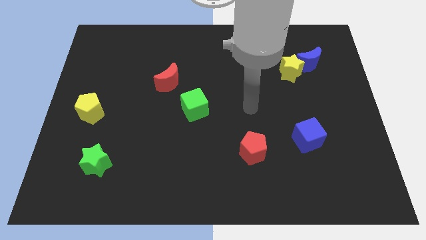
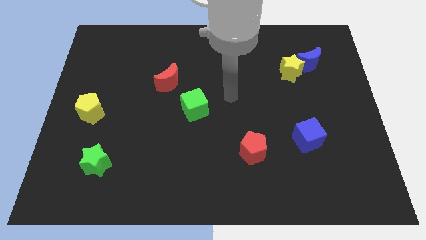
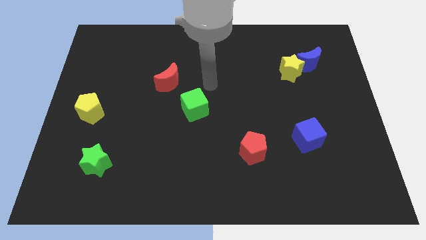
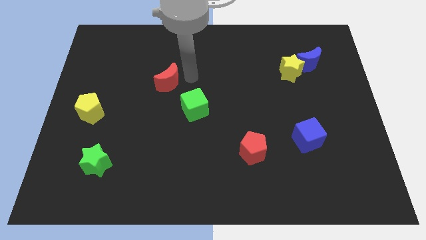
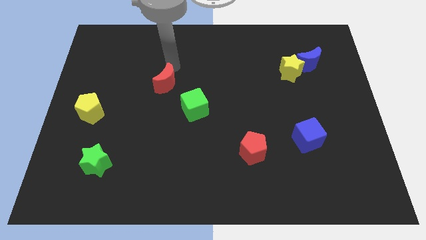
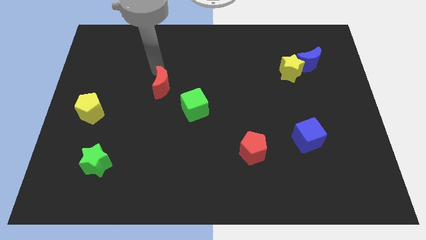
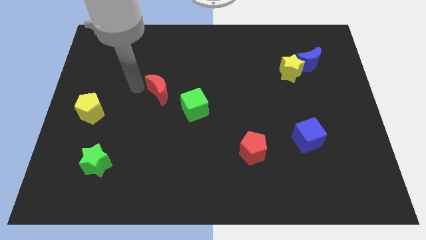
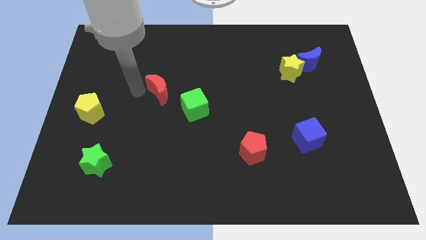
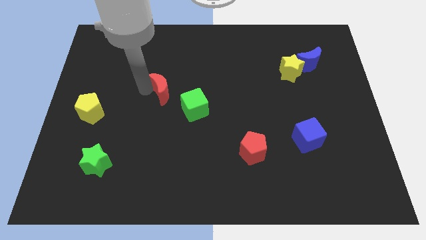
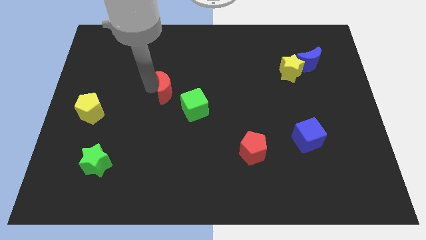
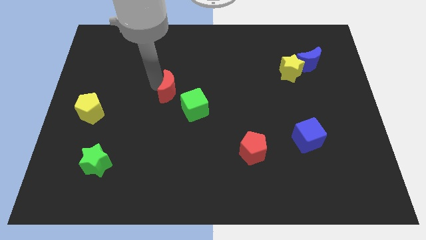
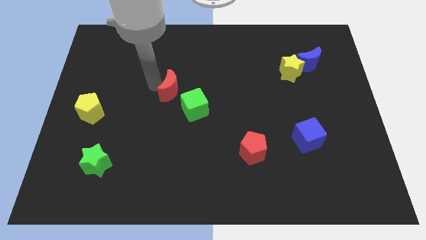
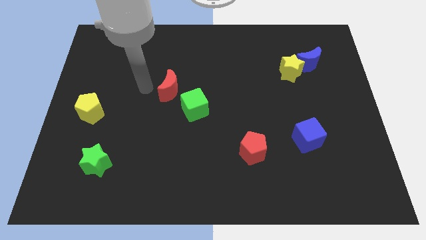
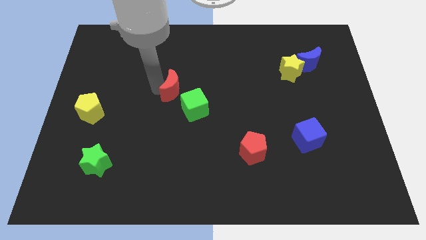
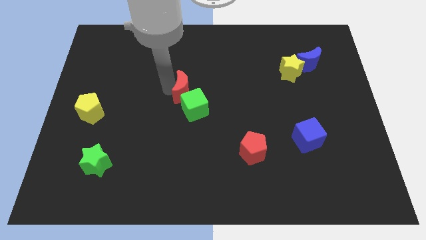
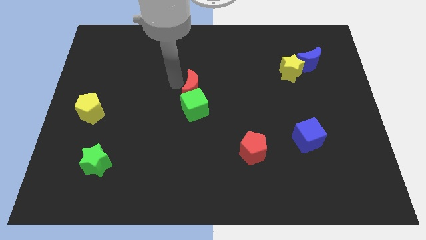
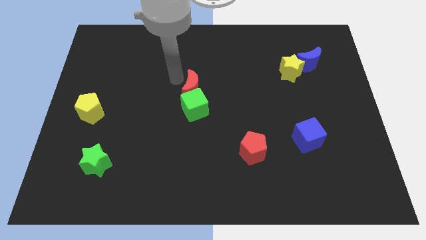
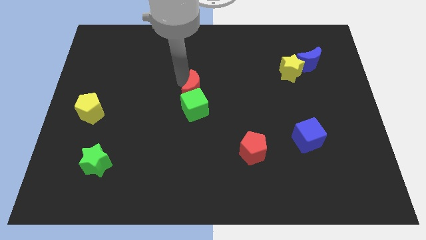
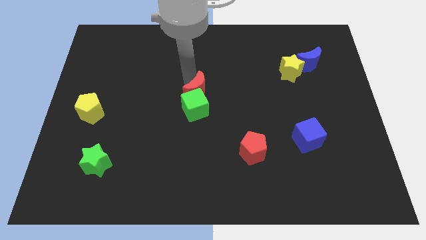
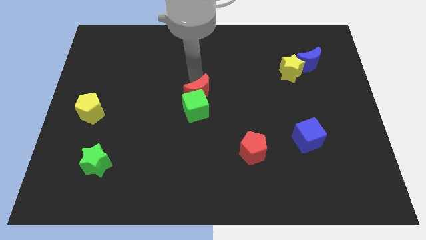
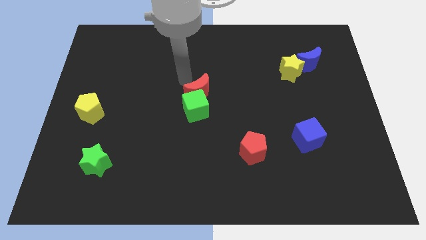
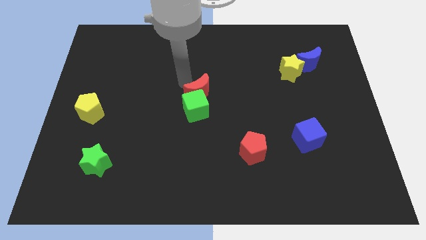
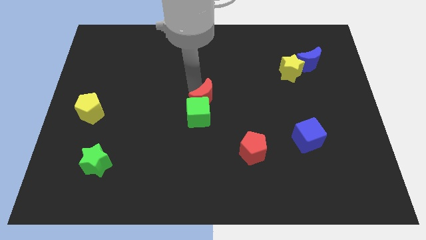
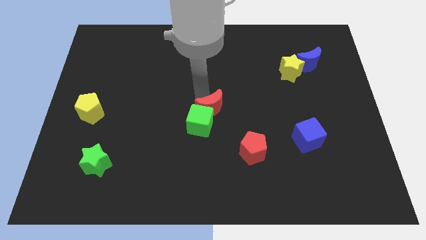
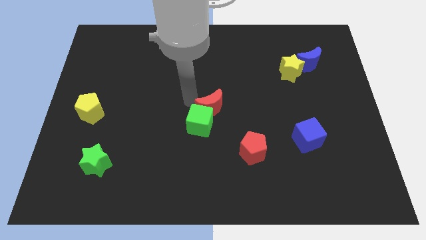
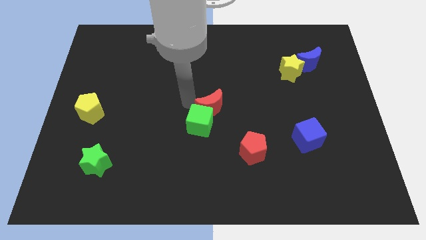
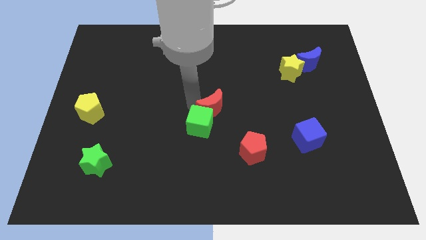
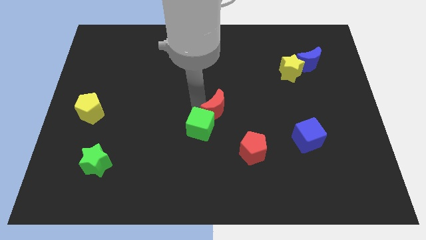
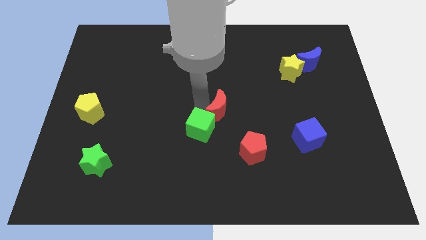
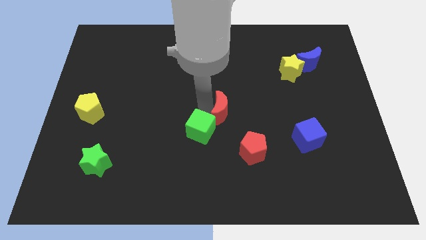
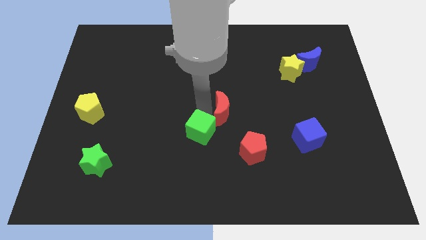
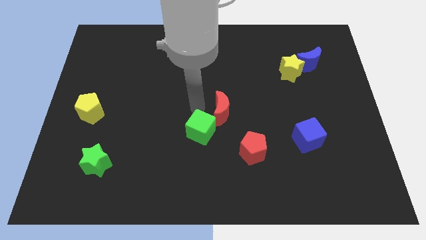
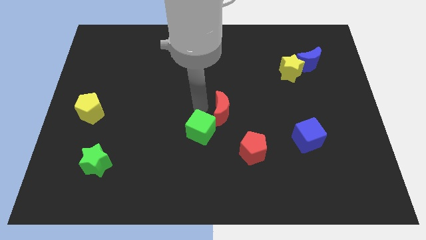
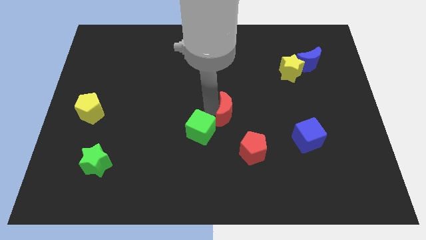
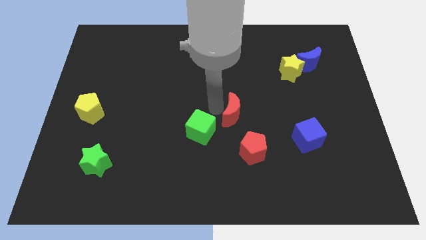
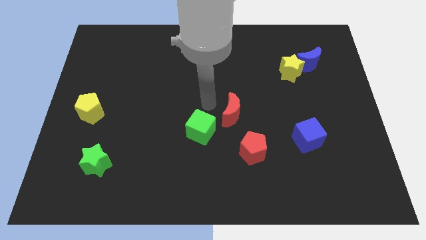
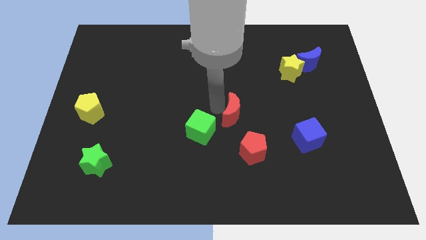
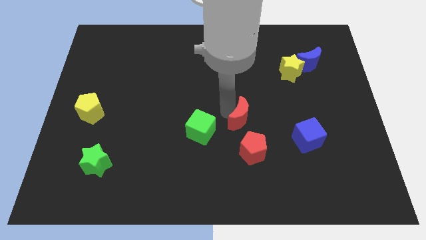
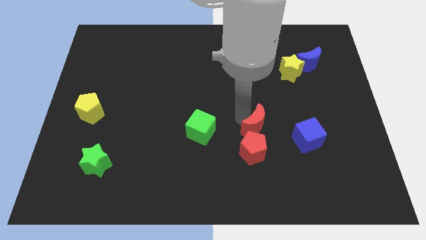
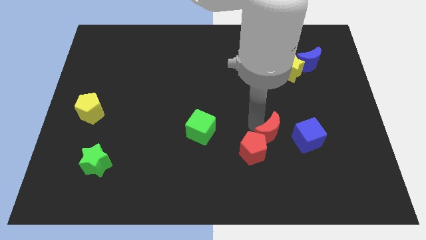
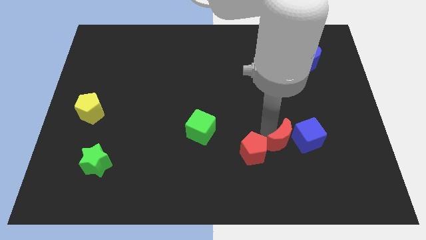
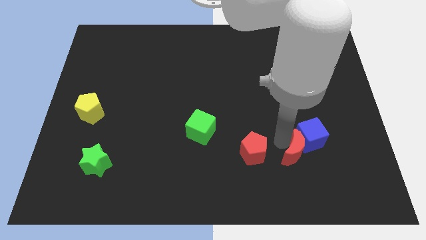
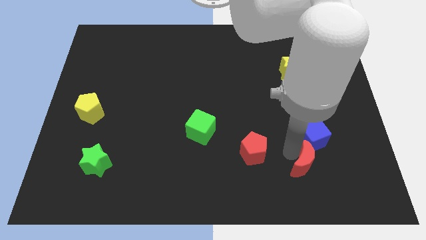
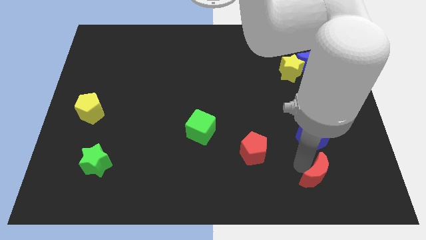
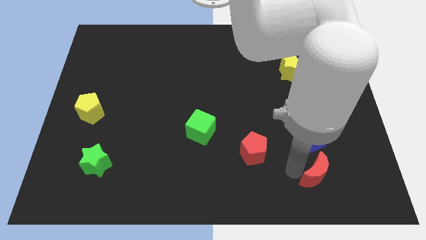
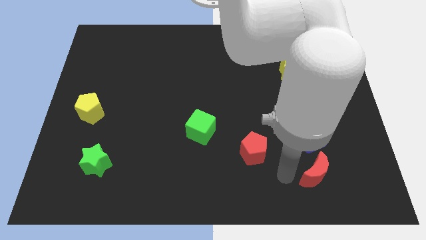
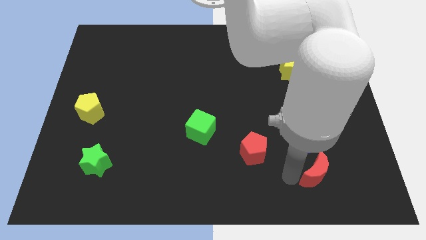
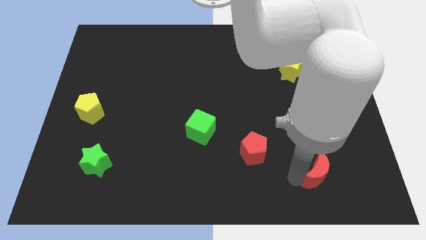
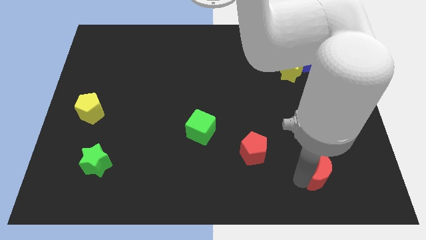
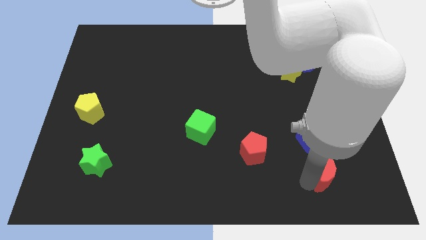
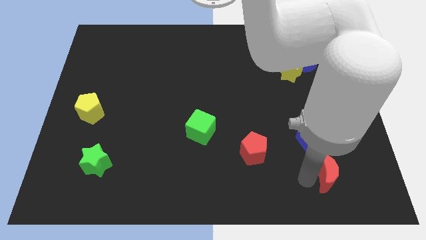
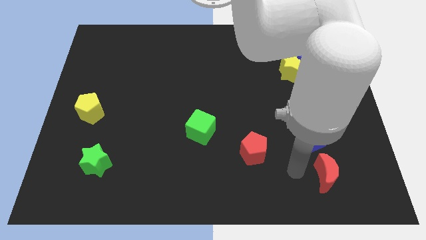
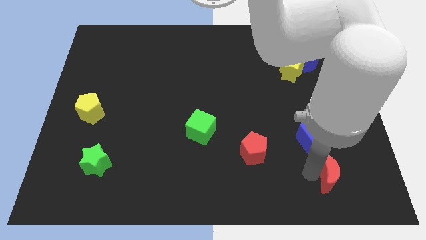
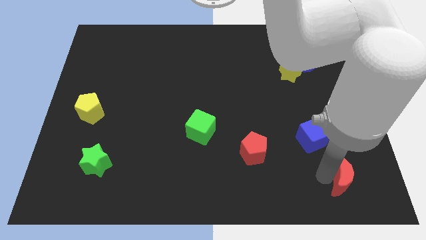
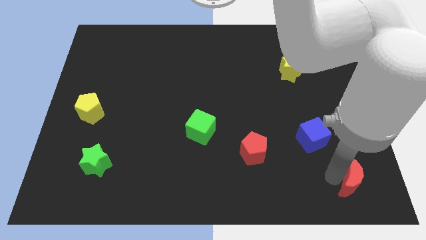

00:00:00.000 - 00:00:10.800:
slide the red moon to the lower right corner

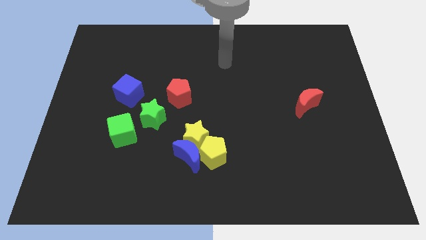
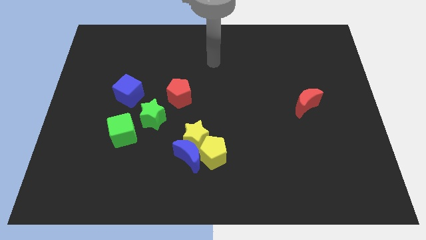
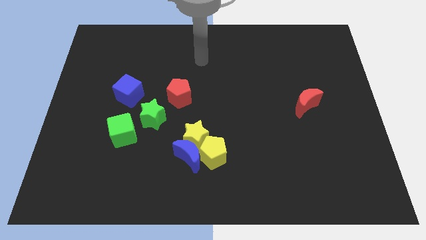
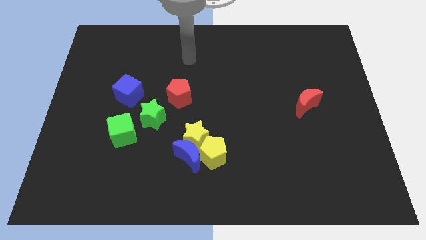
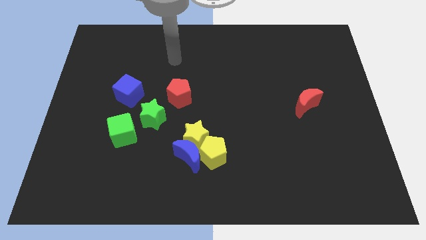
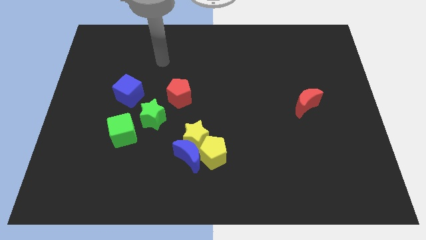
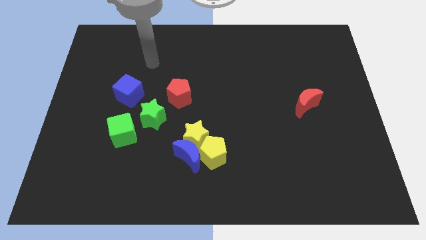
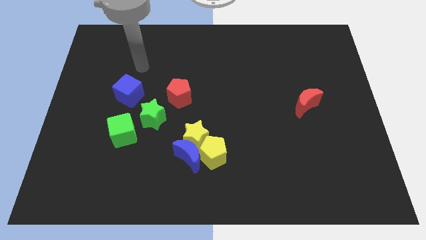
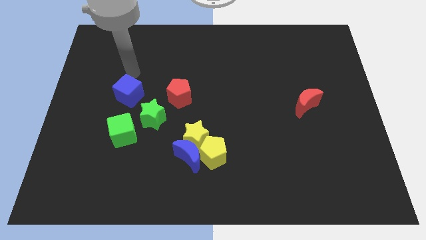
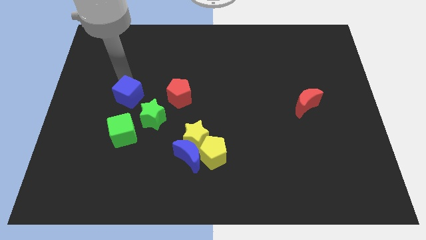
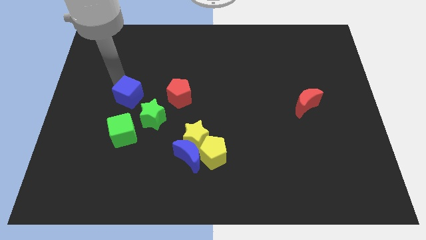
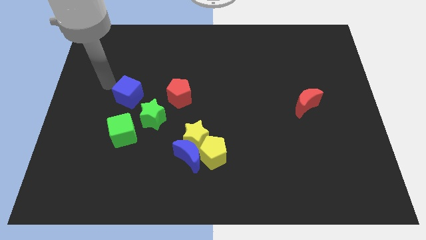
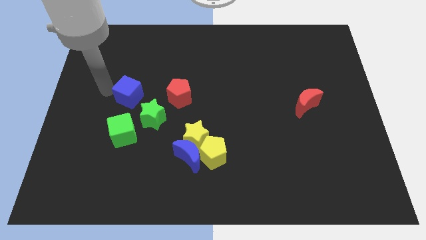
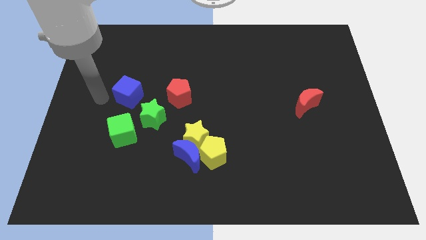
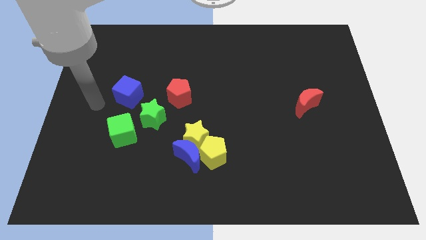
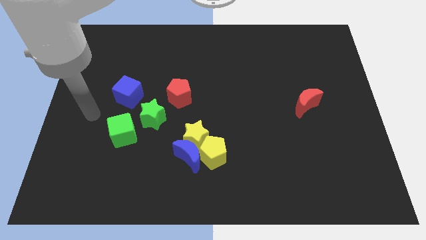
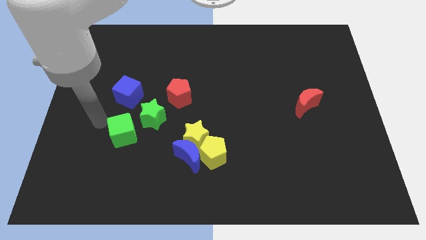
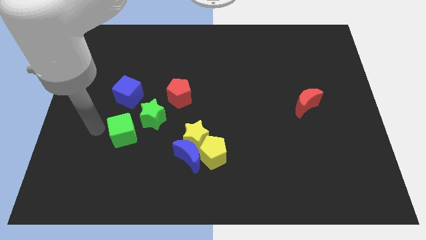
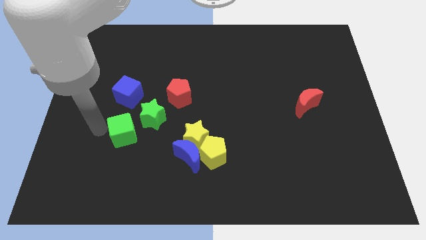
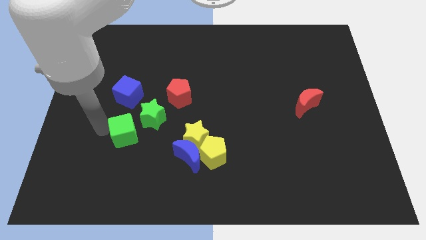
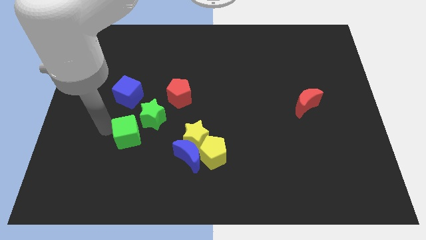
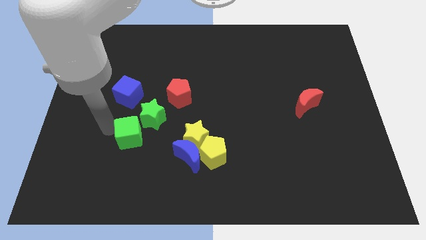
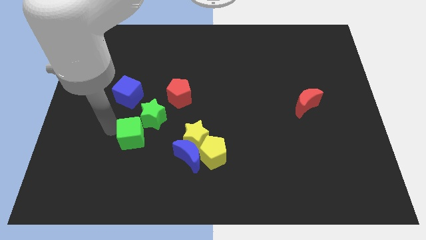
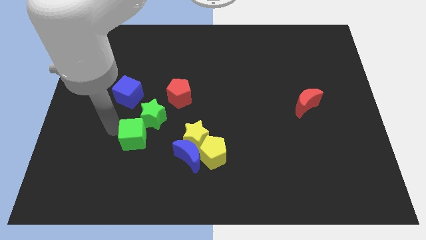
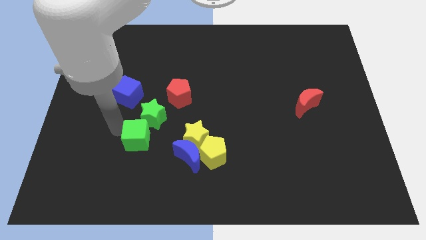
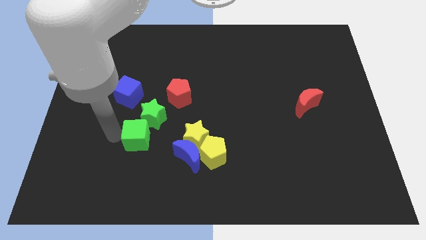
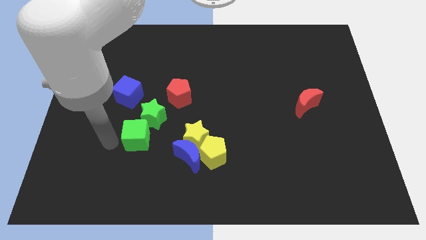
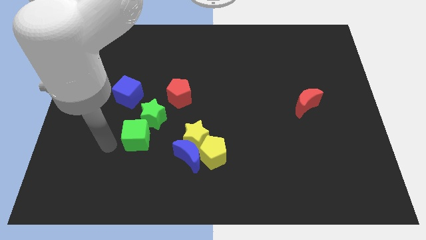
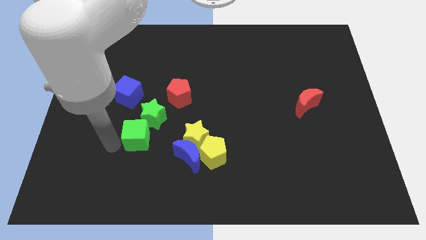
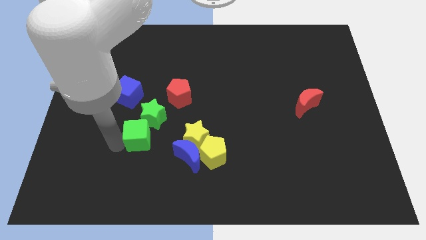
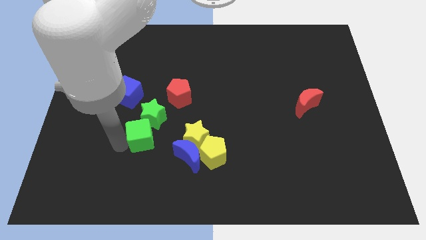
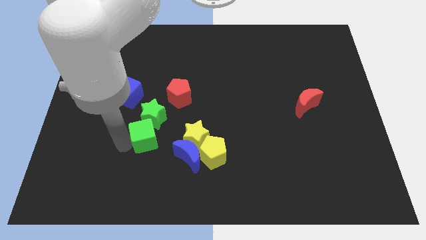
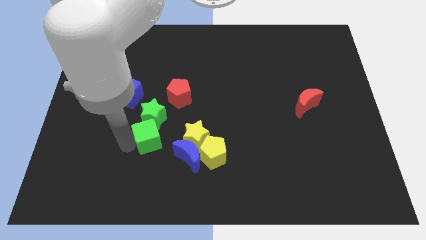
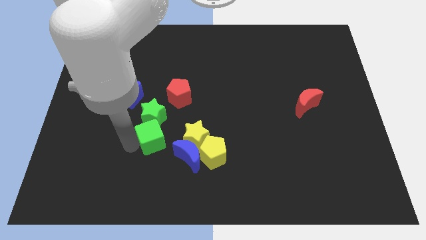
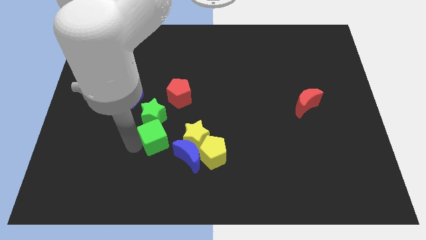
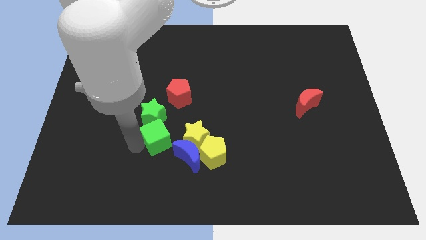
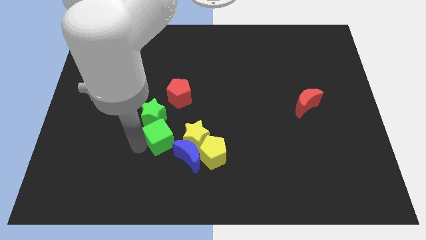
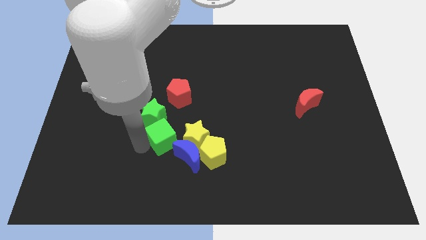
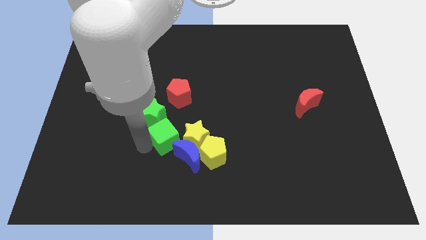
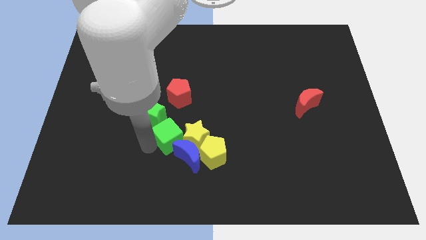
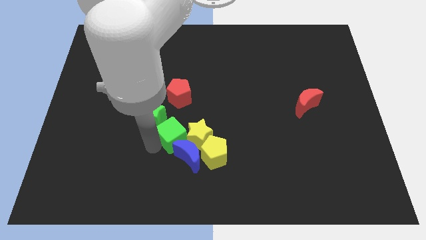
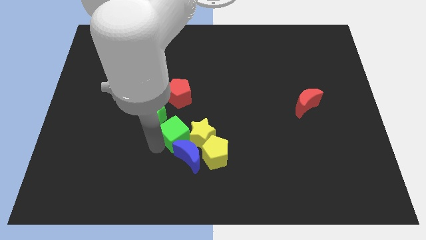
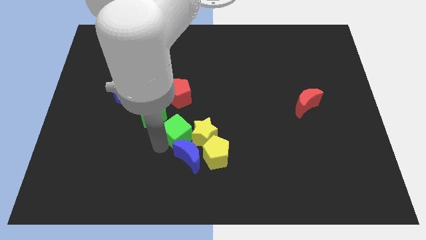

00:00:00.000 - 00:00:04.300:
slide the green cube to the middle
